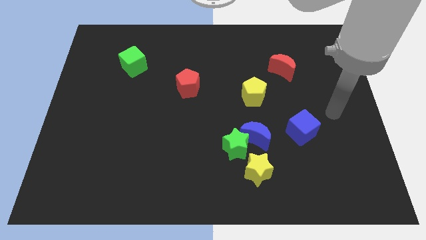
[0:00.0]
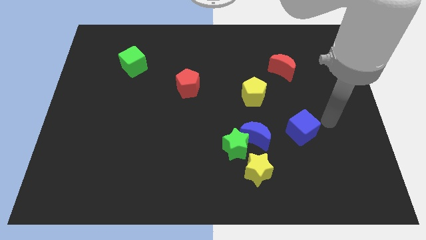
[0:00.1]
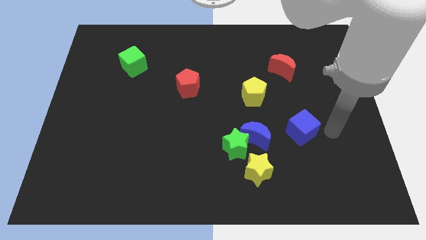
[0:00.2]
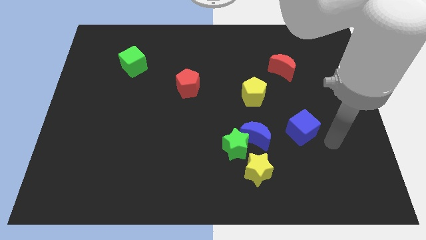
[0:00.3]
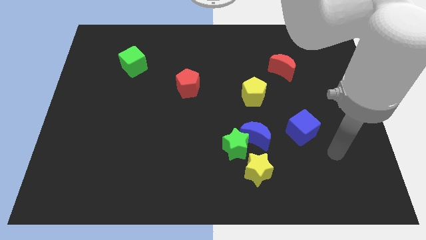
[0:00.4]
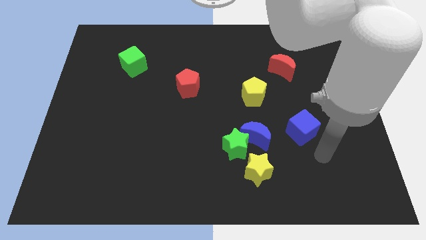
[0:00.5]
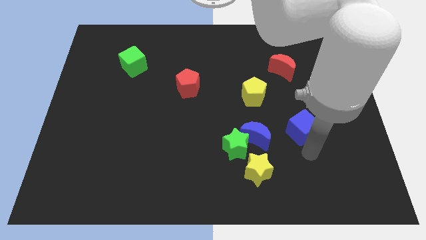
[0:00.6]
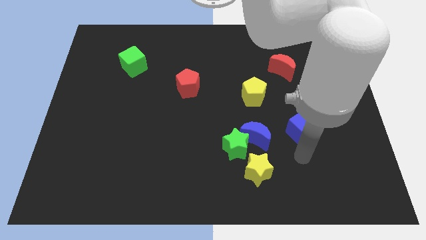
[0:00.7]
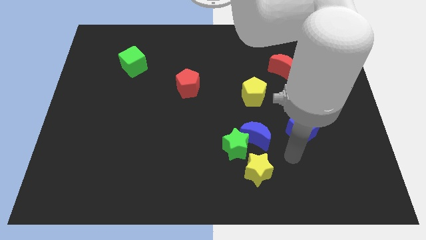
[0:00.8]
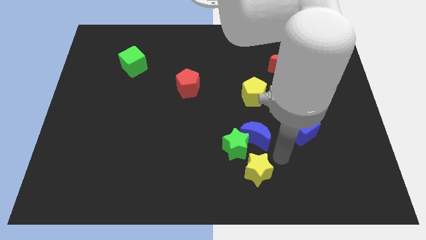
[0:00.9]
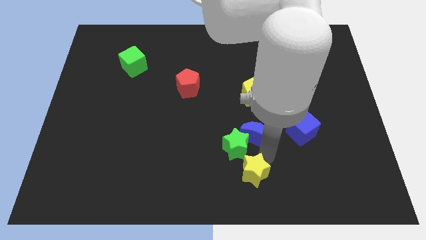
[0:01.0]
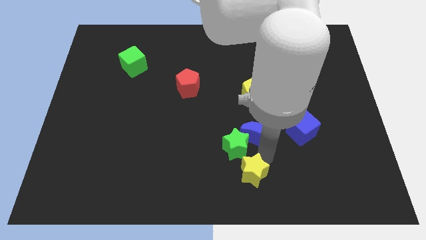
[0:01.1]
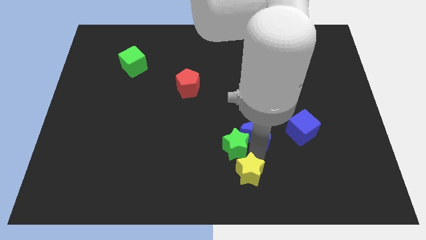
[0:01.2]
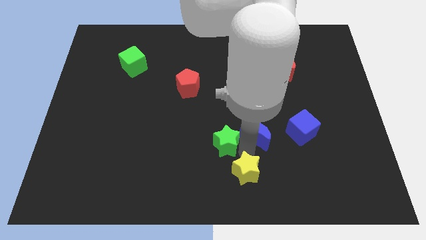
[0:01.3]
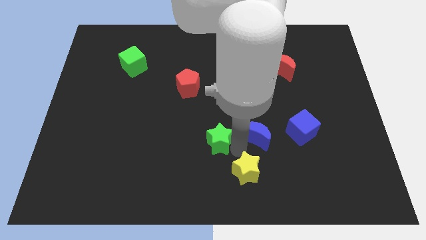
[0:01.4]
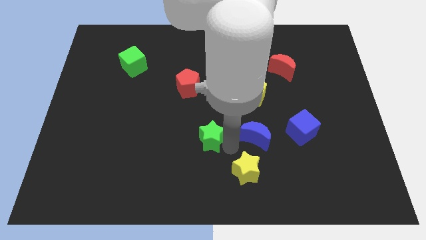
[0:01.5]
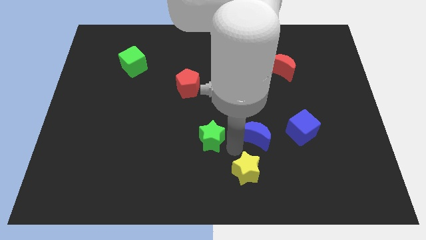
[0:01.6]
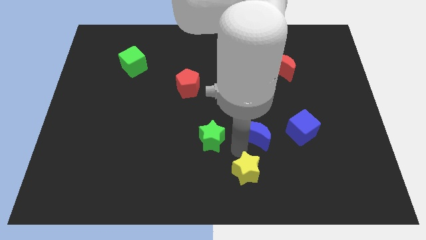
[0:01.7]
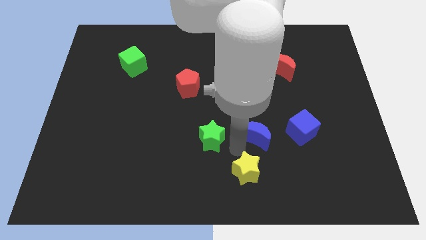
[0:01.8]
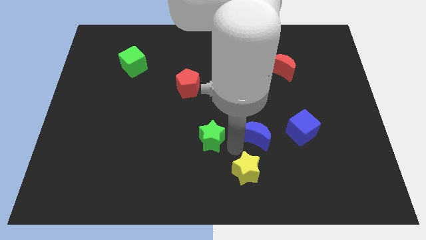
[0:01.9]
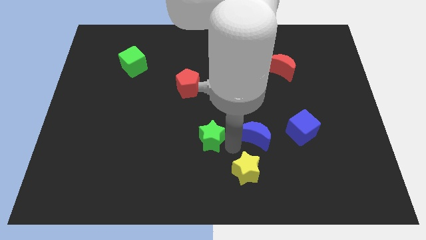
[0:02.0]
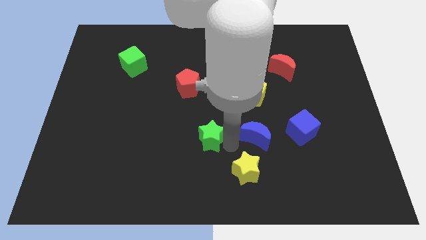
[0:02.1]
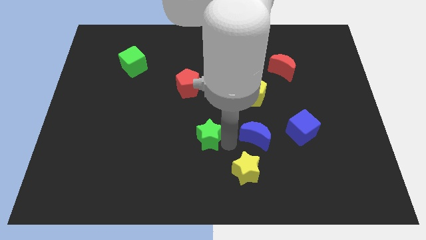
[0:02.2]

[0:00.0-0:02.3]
move the green star away from the blue moon and yellow star

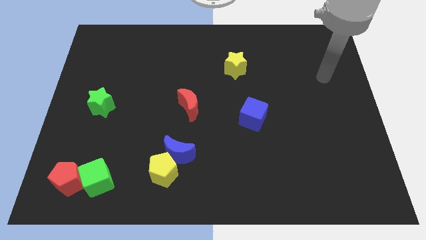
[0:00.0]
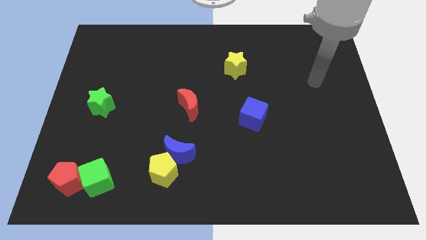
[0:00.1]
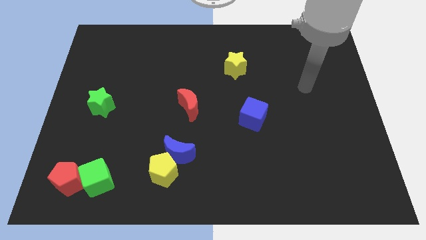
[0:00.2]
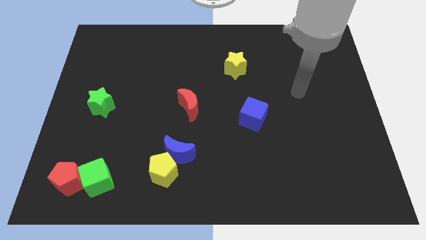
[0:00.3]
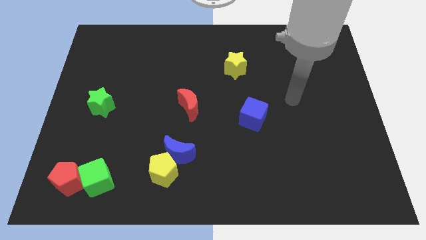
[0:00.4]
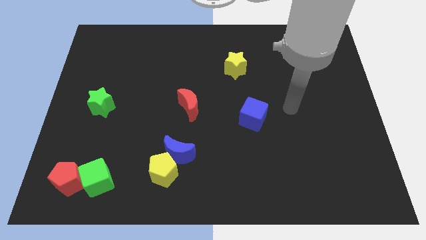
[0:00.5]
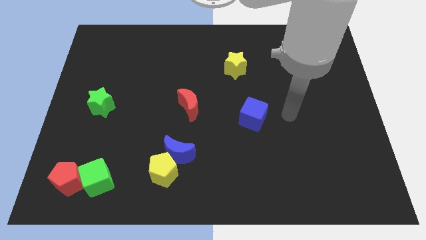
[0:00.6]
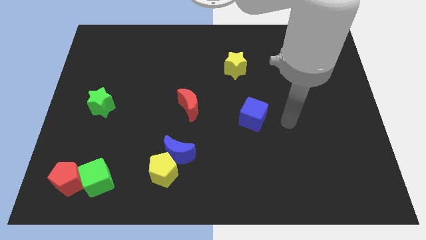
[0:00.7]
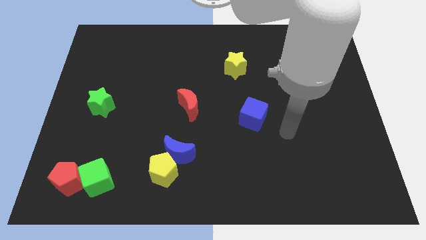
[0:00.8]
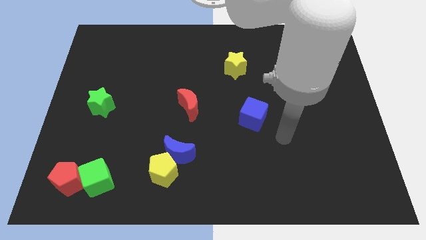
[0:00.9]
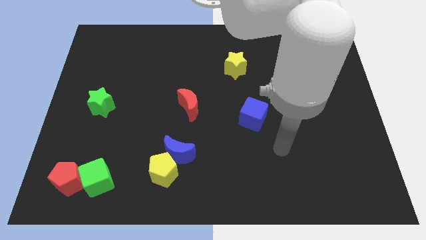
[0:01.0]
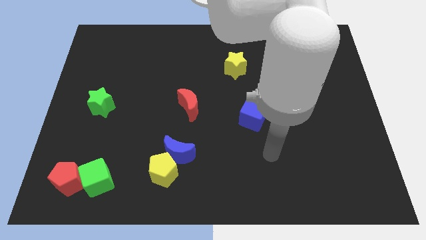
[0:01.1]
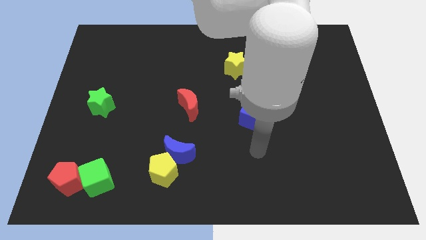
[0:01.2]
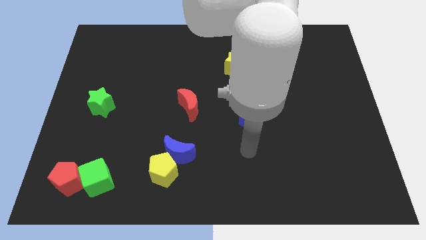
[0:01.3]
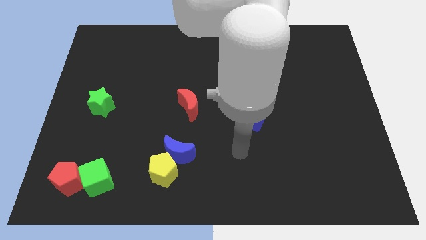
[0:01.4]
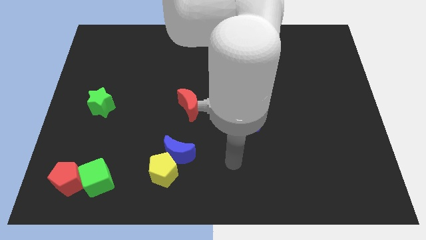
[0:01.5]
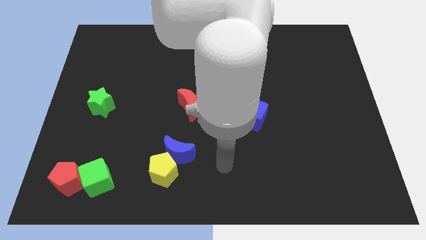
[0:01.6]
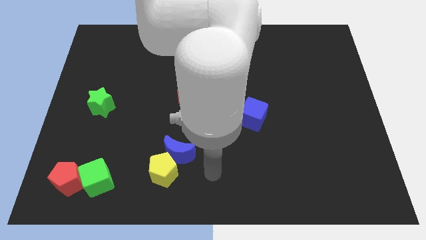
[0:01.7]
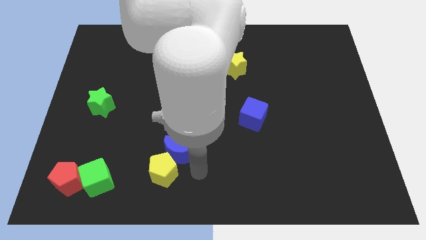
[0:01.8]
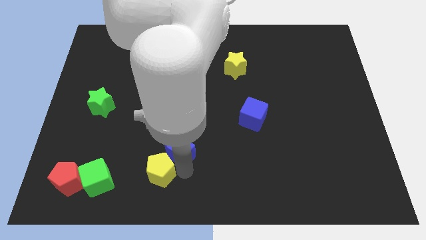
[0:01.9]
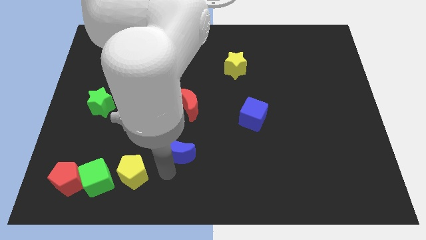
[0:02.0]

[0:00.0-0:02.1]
pull the blue moon apart from the yellow pentagon

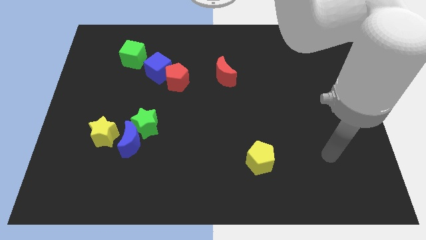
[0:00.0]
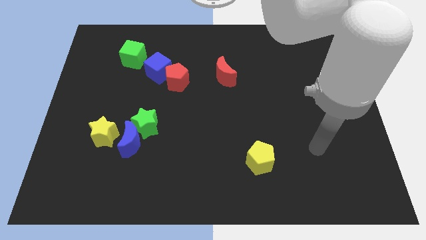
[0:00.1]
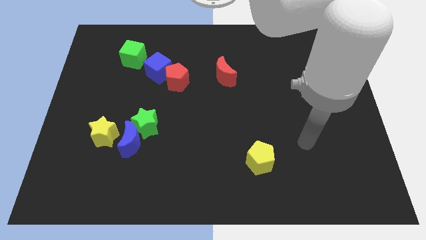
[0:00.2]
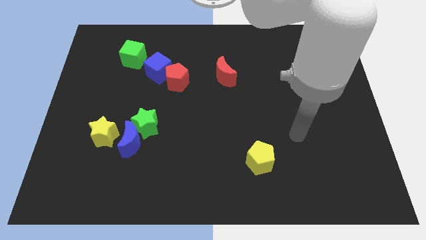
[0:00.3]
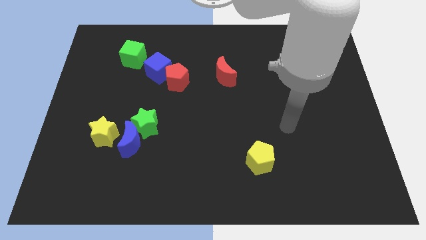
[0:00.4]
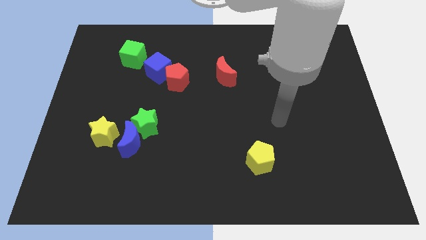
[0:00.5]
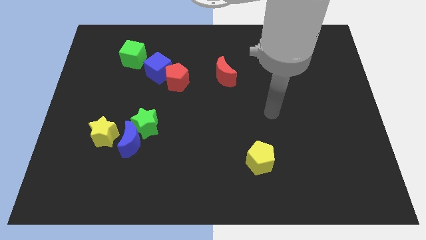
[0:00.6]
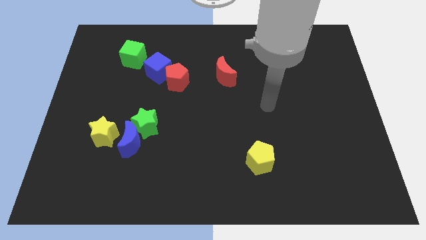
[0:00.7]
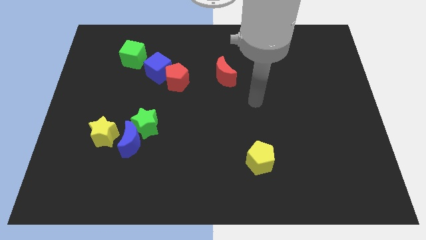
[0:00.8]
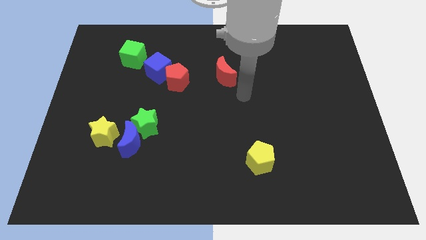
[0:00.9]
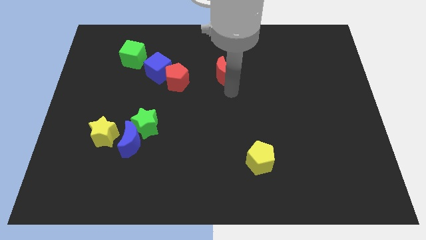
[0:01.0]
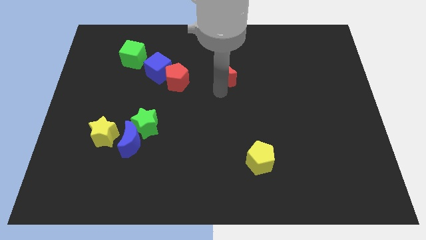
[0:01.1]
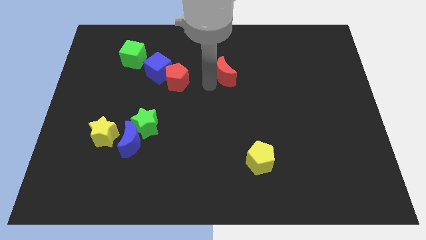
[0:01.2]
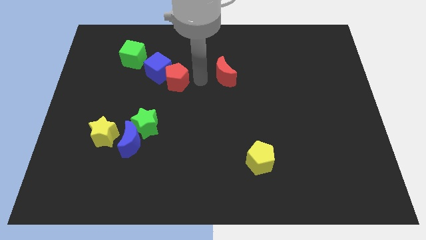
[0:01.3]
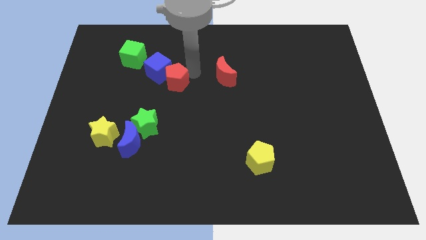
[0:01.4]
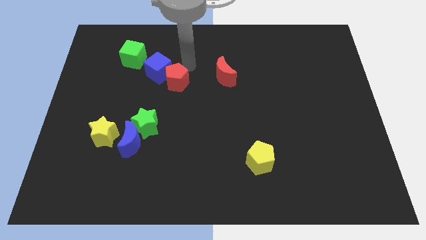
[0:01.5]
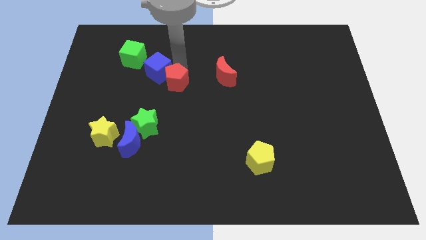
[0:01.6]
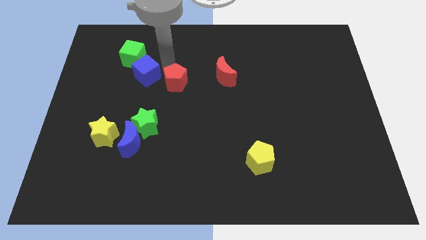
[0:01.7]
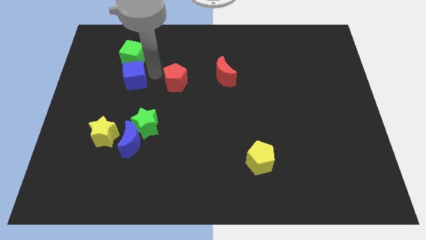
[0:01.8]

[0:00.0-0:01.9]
pull the red pentagon apart from the blue cube

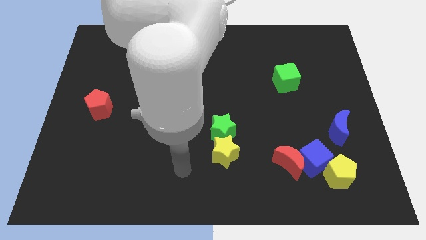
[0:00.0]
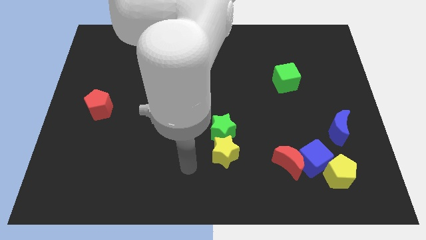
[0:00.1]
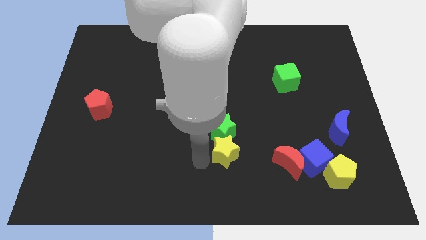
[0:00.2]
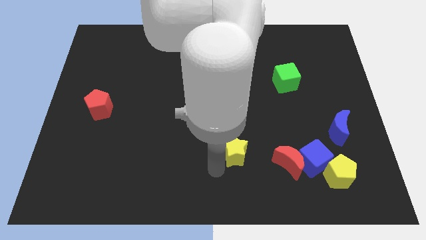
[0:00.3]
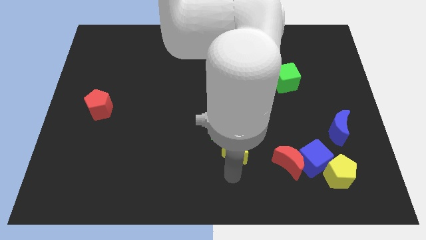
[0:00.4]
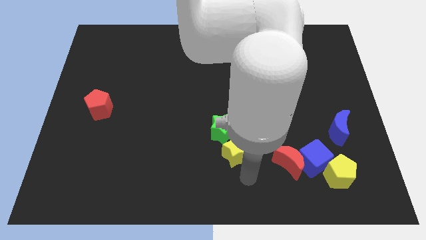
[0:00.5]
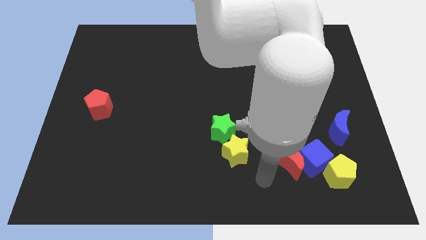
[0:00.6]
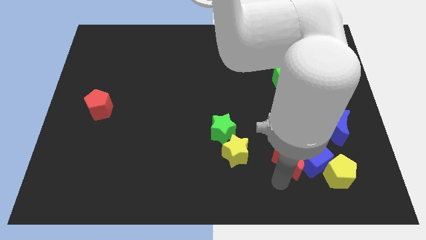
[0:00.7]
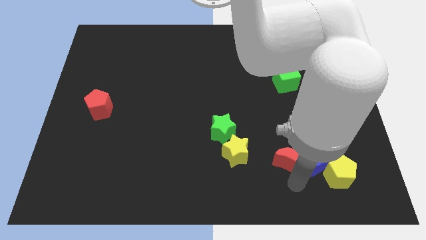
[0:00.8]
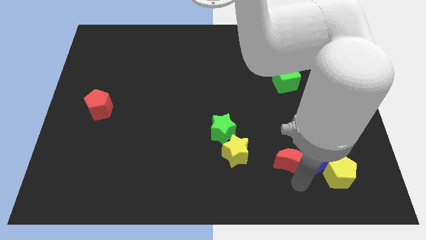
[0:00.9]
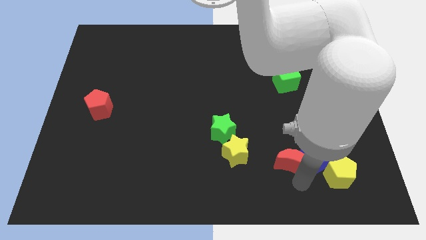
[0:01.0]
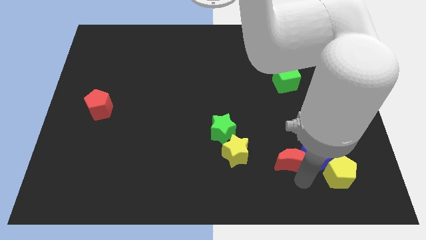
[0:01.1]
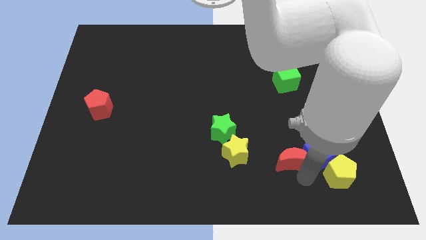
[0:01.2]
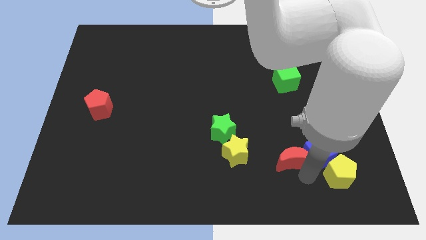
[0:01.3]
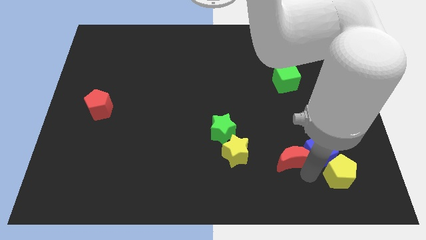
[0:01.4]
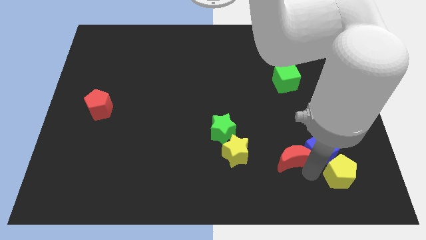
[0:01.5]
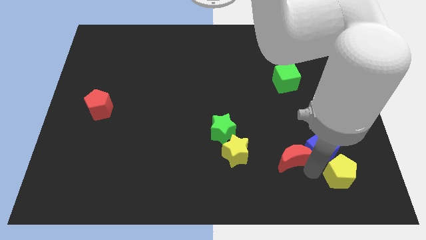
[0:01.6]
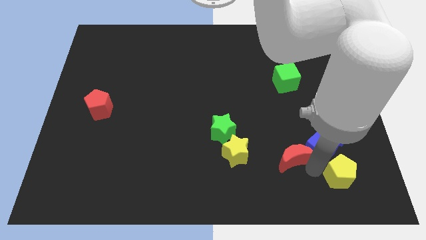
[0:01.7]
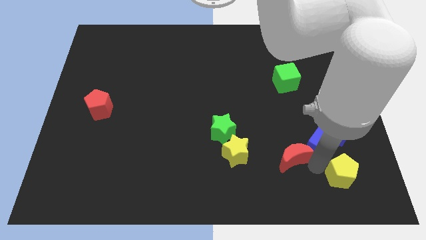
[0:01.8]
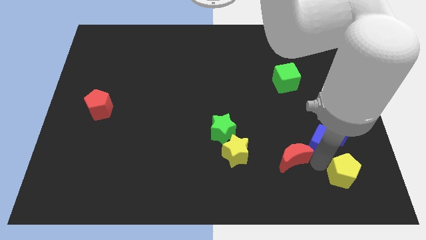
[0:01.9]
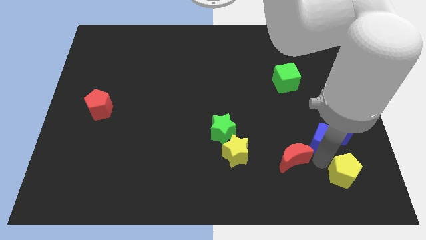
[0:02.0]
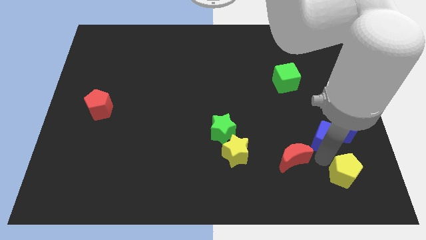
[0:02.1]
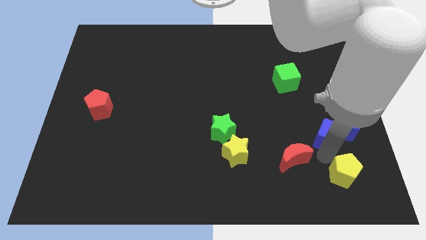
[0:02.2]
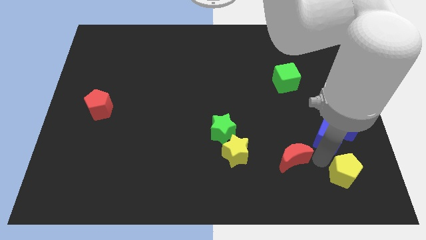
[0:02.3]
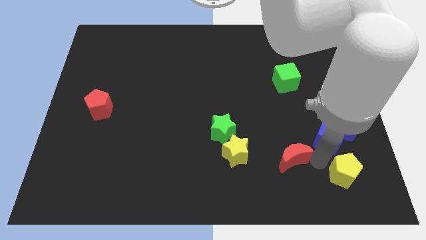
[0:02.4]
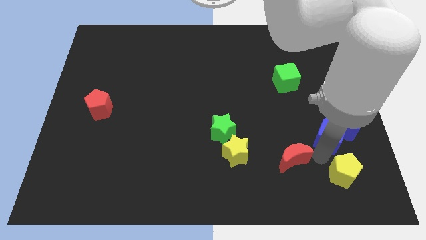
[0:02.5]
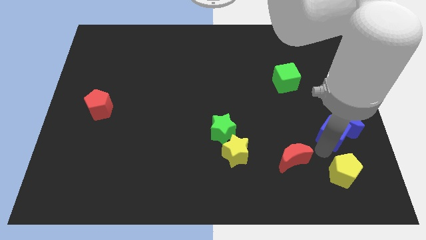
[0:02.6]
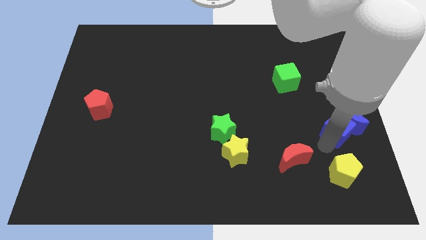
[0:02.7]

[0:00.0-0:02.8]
move the blue cube away from the red moon and yellow pentagon

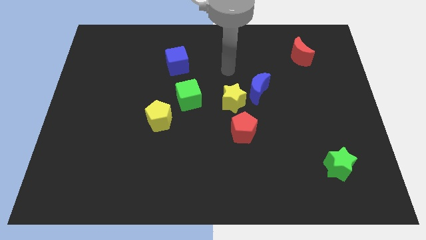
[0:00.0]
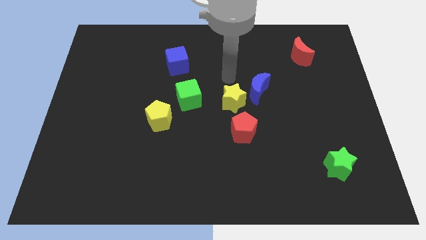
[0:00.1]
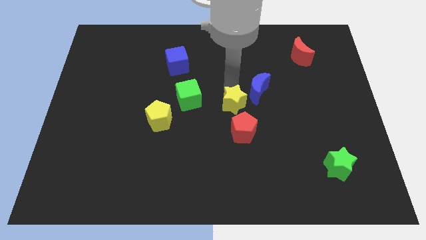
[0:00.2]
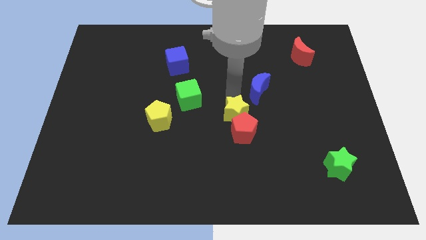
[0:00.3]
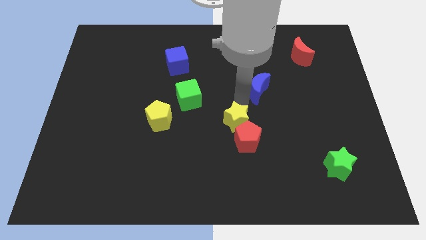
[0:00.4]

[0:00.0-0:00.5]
move the blue moon away from the yellow star
